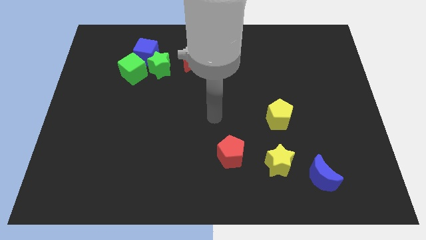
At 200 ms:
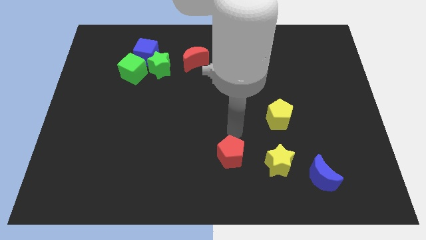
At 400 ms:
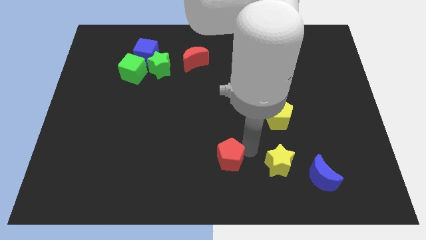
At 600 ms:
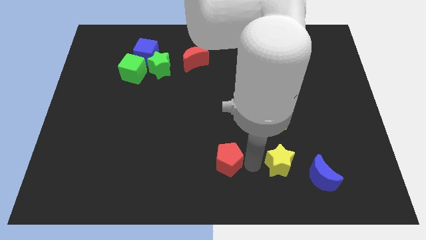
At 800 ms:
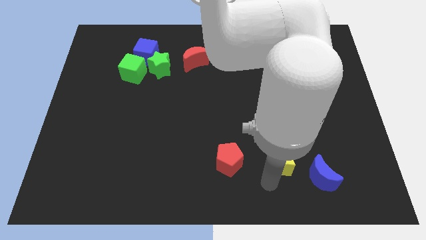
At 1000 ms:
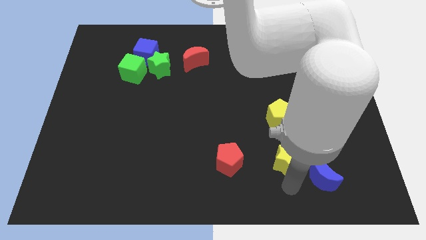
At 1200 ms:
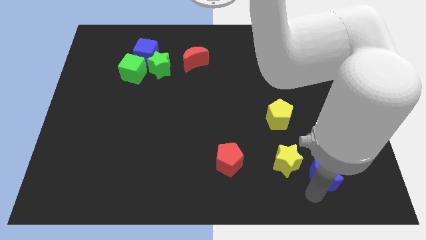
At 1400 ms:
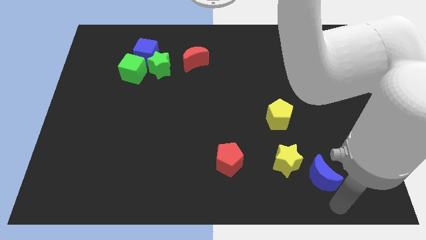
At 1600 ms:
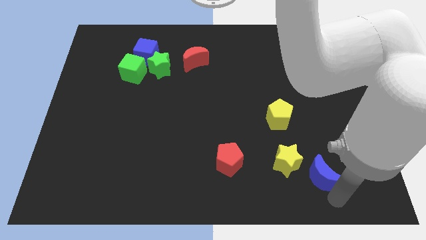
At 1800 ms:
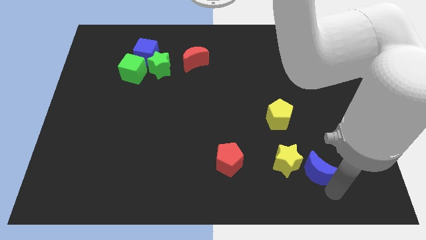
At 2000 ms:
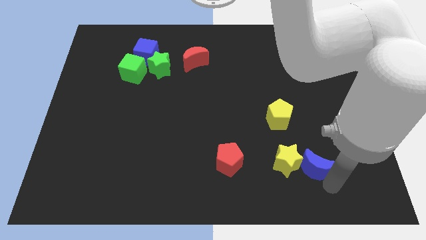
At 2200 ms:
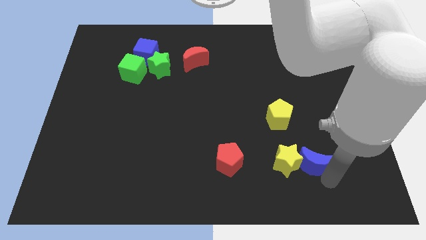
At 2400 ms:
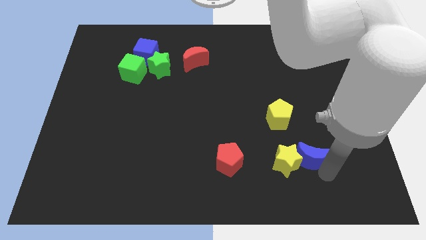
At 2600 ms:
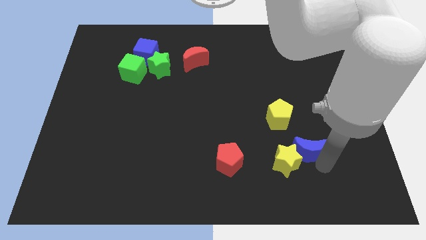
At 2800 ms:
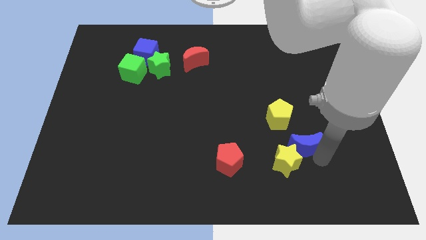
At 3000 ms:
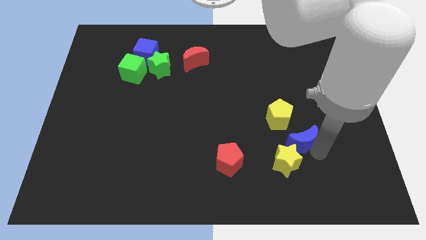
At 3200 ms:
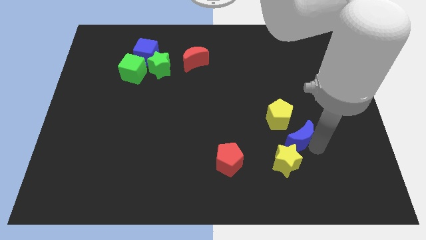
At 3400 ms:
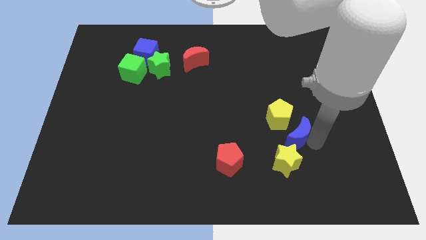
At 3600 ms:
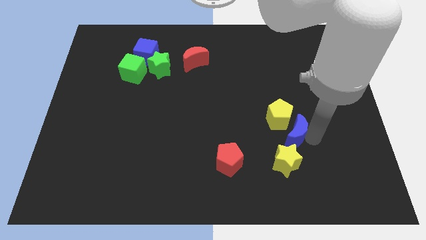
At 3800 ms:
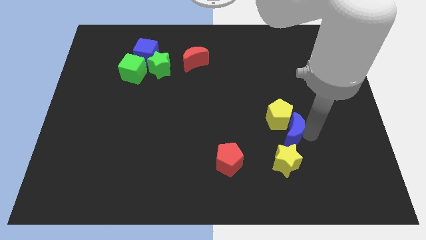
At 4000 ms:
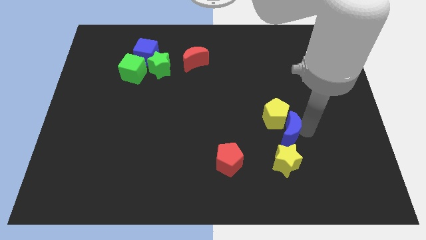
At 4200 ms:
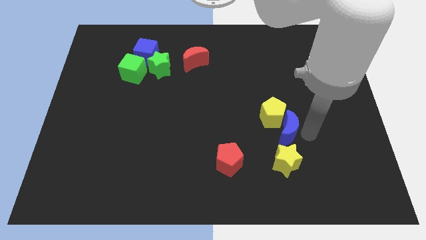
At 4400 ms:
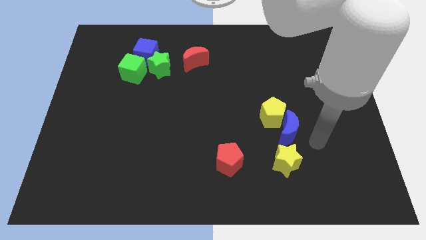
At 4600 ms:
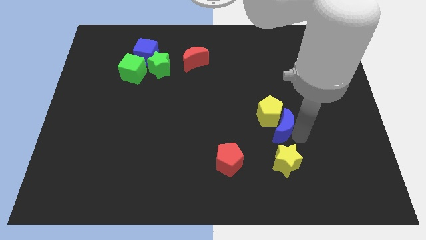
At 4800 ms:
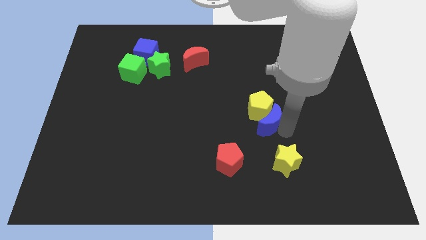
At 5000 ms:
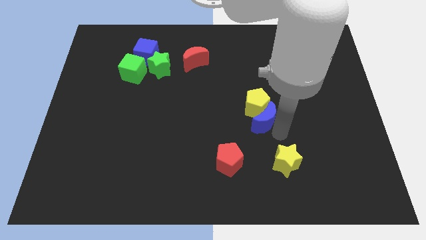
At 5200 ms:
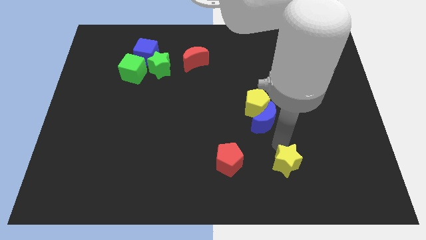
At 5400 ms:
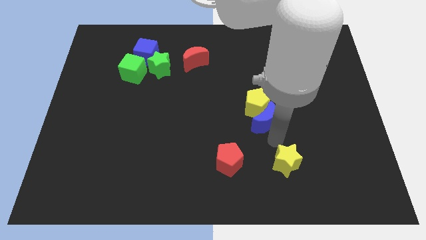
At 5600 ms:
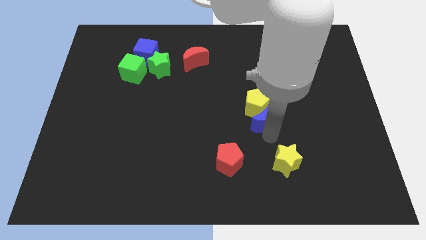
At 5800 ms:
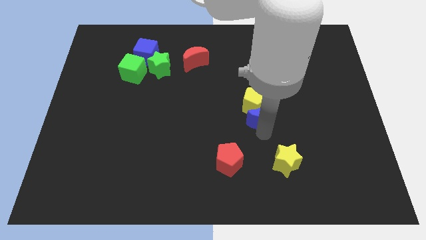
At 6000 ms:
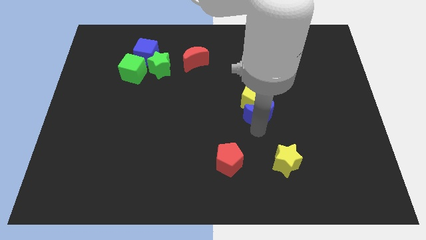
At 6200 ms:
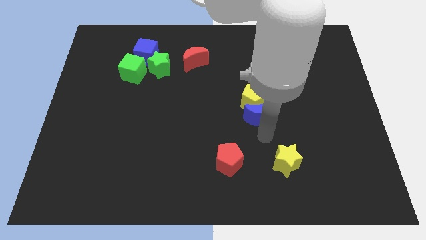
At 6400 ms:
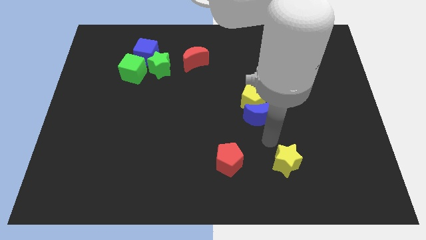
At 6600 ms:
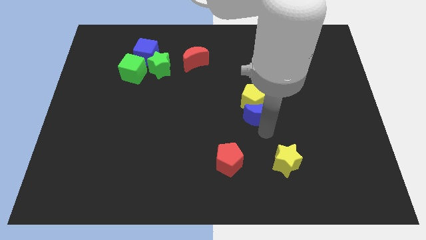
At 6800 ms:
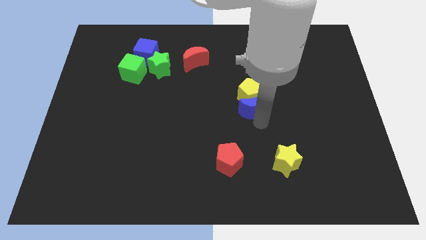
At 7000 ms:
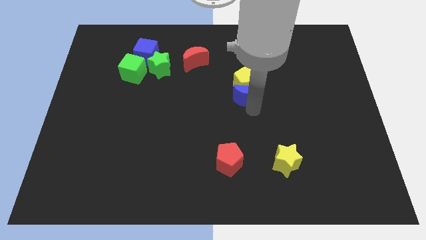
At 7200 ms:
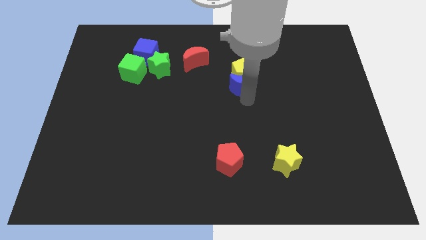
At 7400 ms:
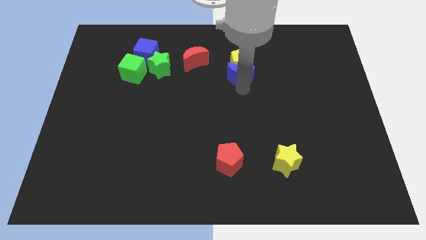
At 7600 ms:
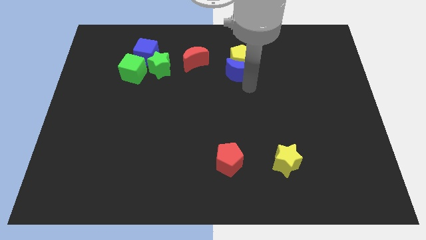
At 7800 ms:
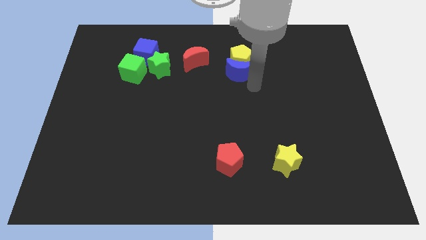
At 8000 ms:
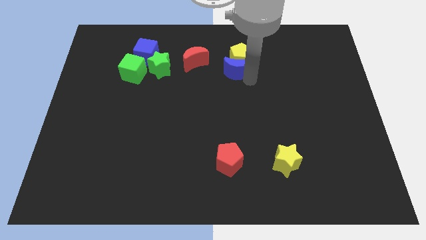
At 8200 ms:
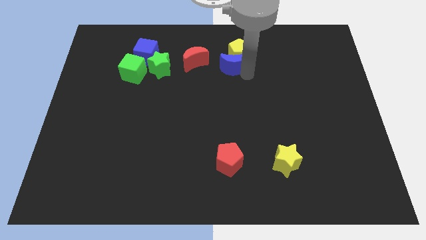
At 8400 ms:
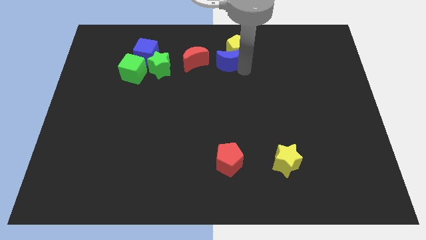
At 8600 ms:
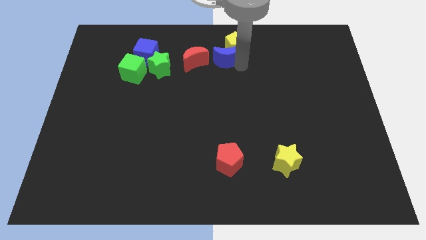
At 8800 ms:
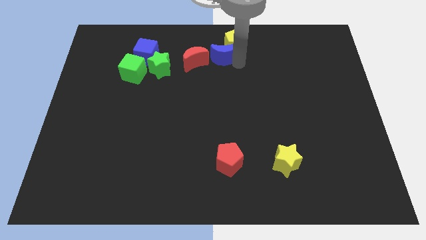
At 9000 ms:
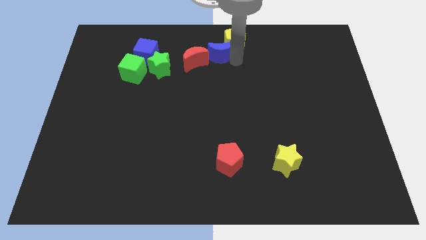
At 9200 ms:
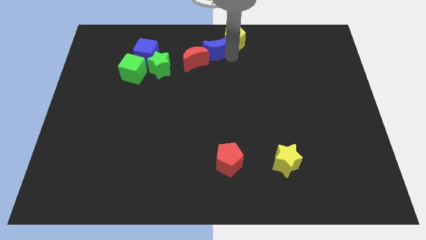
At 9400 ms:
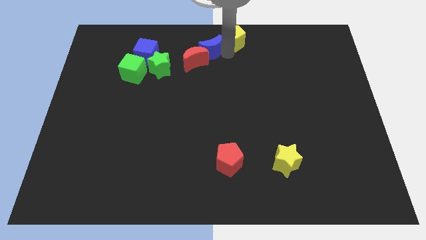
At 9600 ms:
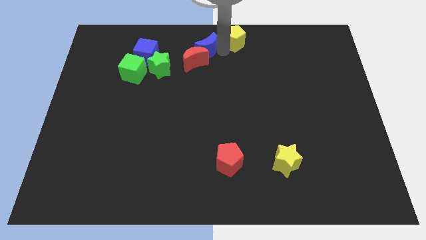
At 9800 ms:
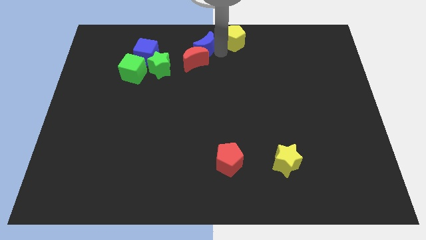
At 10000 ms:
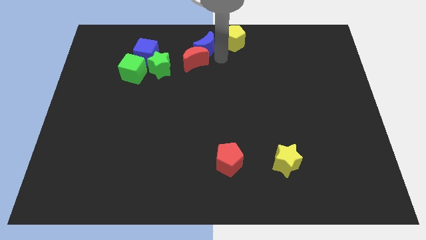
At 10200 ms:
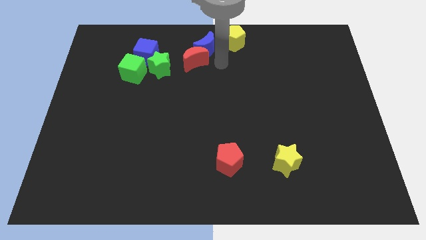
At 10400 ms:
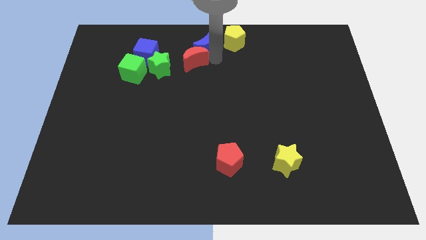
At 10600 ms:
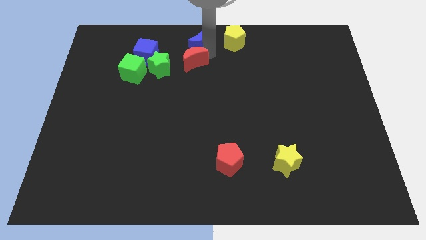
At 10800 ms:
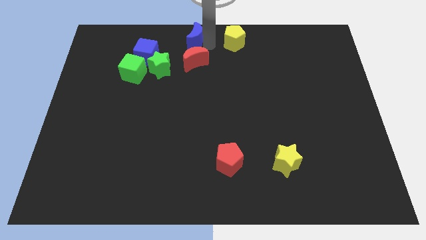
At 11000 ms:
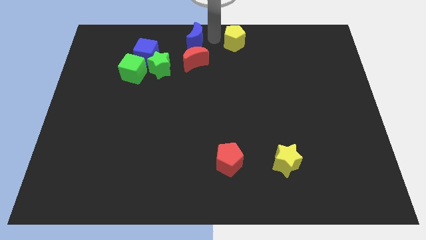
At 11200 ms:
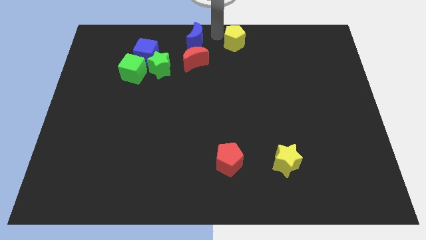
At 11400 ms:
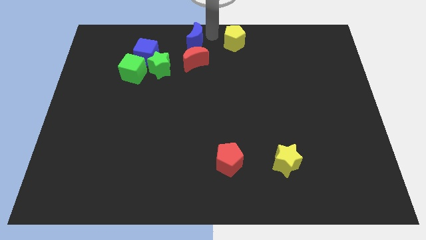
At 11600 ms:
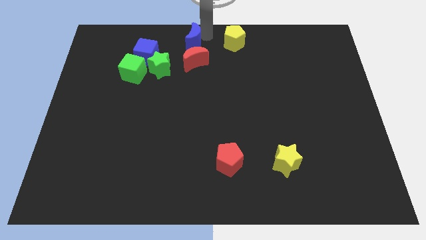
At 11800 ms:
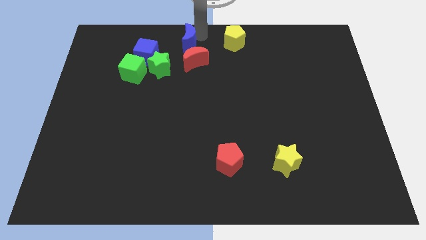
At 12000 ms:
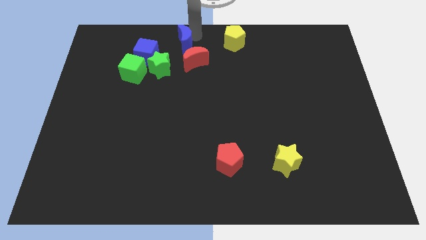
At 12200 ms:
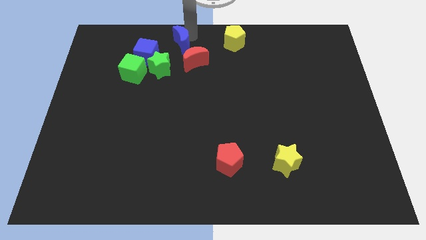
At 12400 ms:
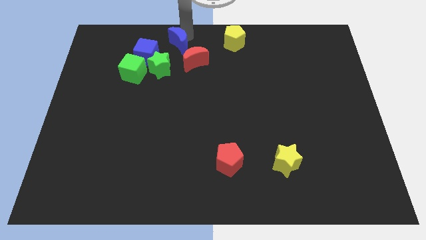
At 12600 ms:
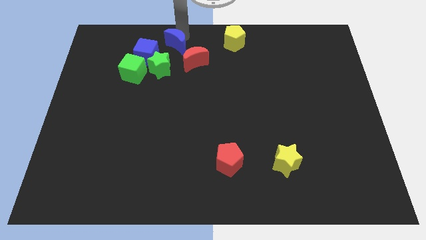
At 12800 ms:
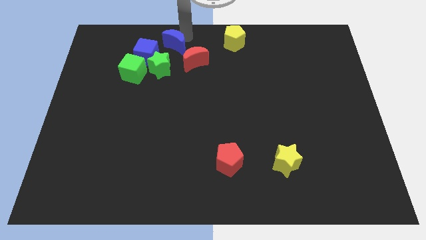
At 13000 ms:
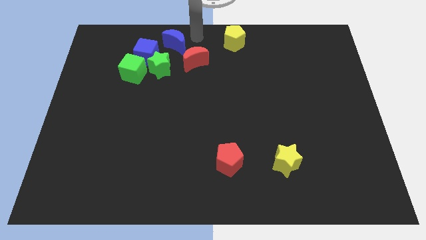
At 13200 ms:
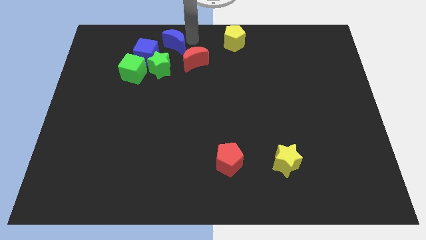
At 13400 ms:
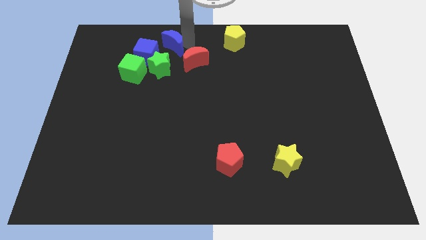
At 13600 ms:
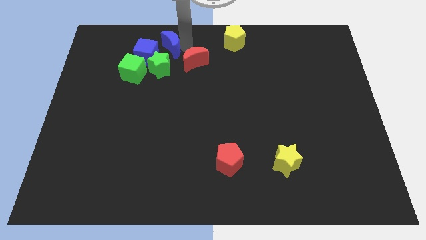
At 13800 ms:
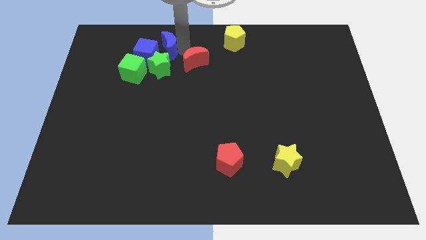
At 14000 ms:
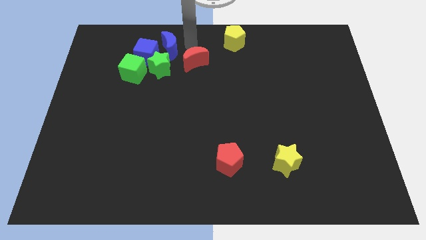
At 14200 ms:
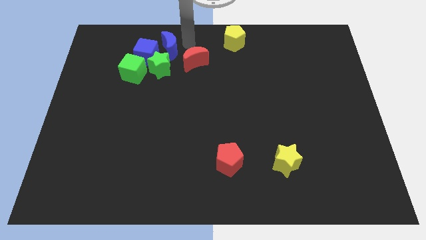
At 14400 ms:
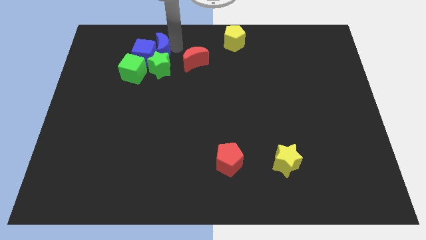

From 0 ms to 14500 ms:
slide the blue moon to the blue cube
